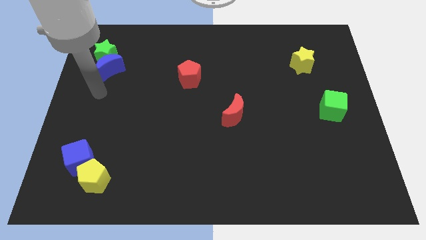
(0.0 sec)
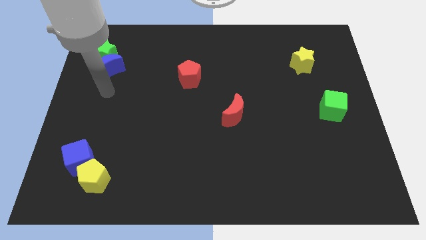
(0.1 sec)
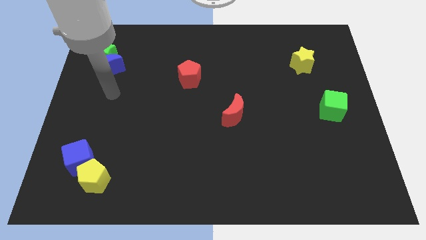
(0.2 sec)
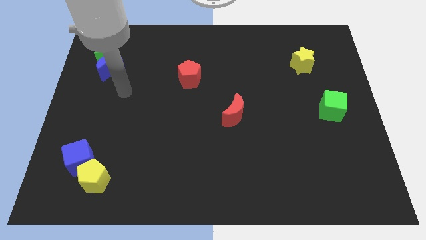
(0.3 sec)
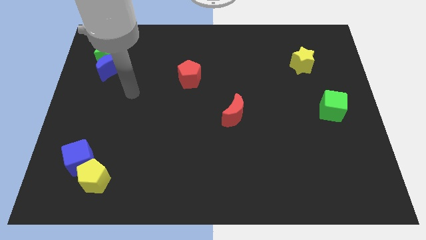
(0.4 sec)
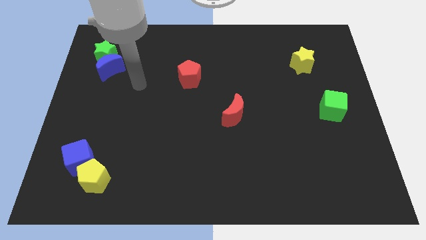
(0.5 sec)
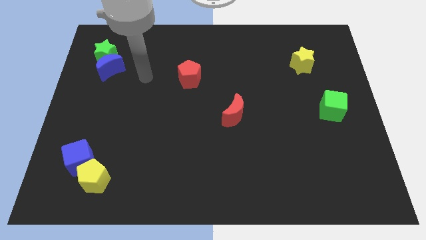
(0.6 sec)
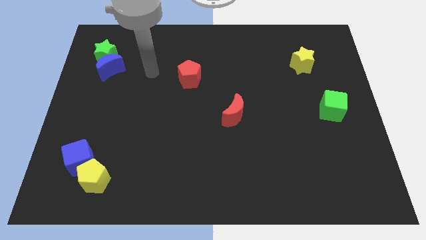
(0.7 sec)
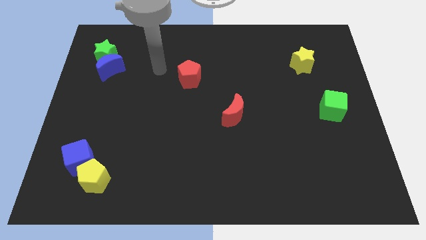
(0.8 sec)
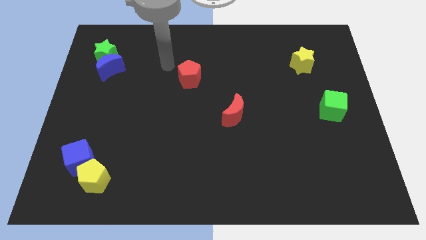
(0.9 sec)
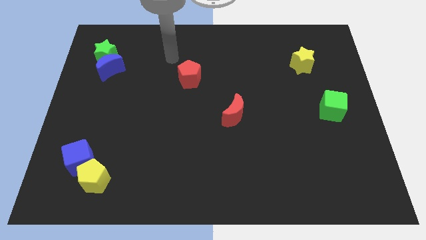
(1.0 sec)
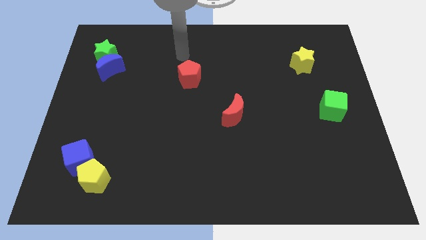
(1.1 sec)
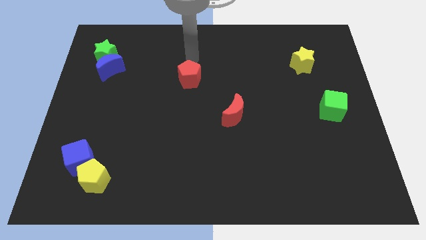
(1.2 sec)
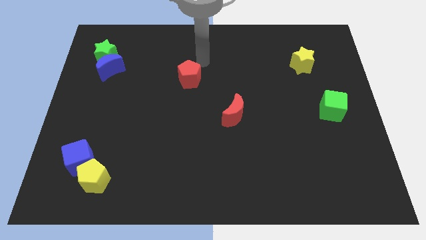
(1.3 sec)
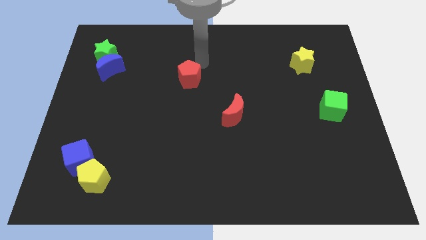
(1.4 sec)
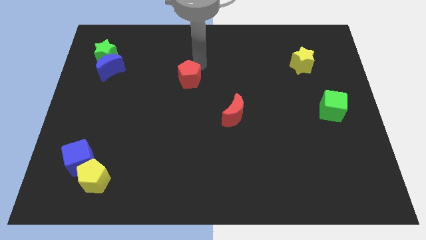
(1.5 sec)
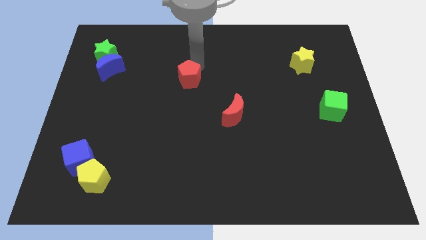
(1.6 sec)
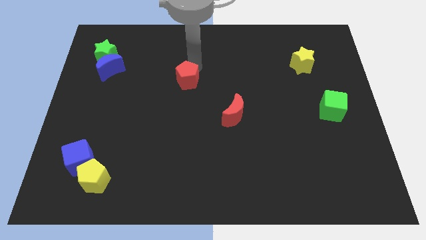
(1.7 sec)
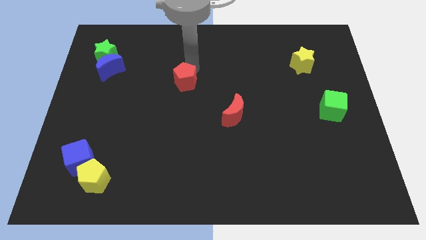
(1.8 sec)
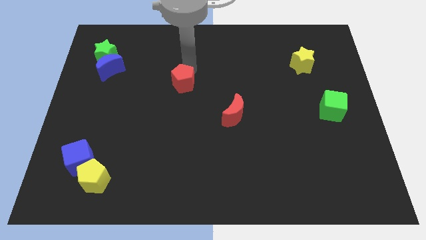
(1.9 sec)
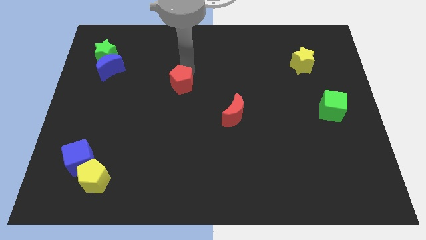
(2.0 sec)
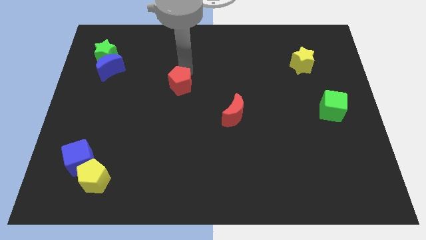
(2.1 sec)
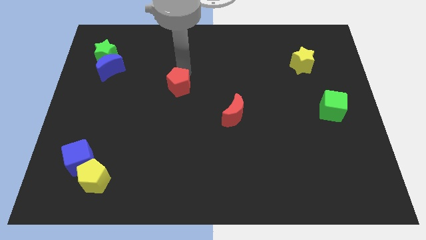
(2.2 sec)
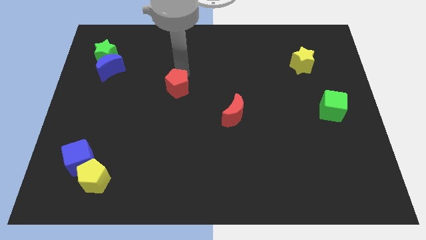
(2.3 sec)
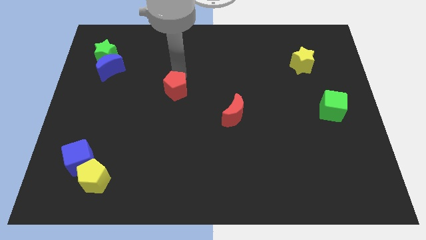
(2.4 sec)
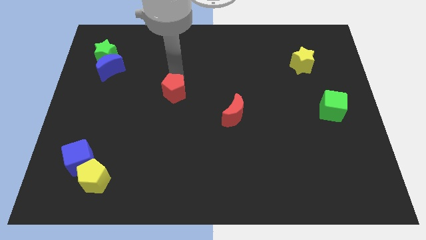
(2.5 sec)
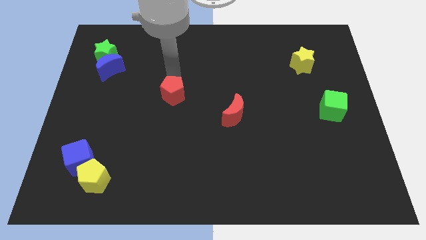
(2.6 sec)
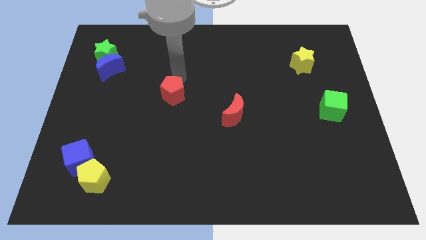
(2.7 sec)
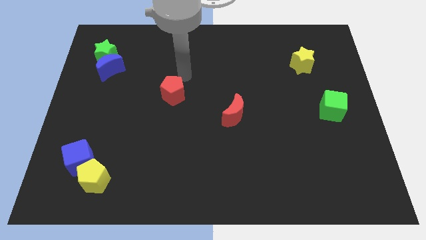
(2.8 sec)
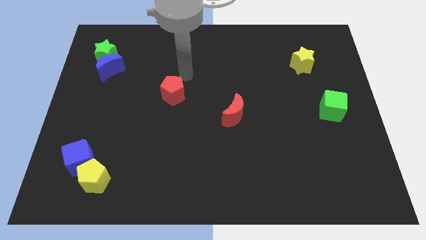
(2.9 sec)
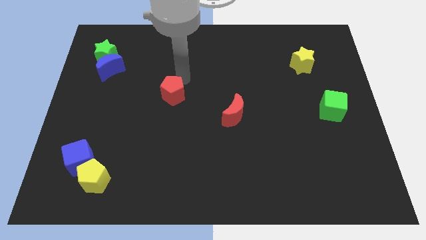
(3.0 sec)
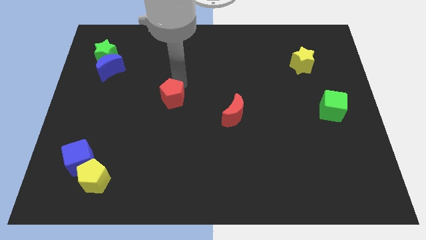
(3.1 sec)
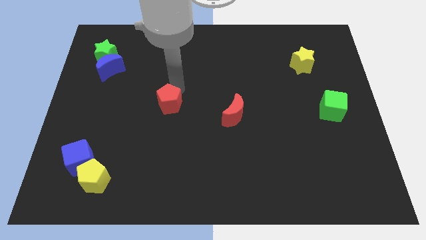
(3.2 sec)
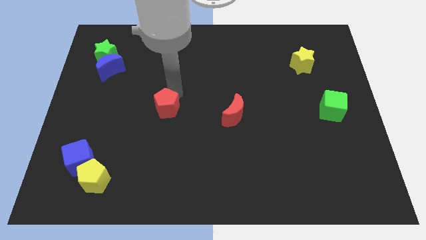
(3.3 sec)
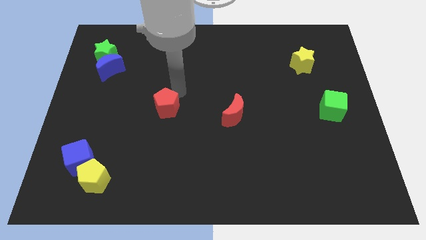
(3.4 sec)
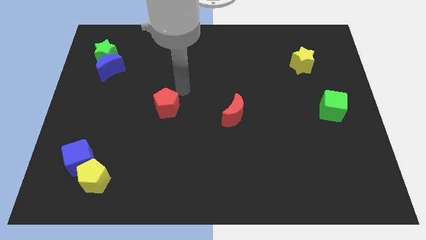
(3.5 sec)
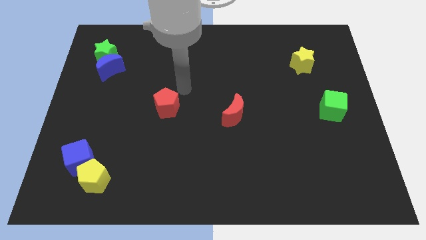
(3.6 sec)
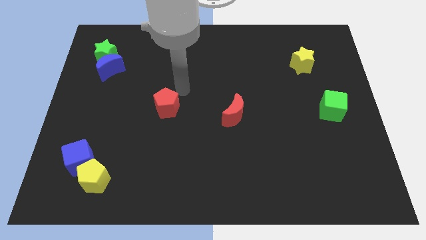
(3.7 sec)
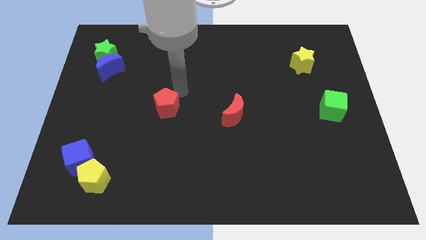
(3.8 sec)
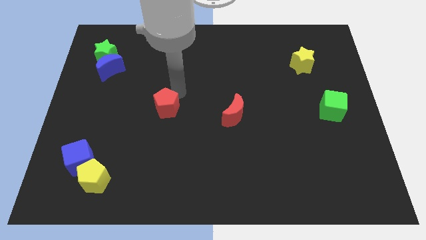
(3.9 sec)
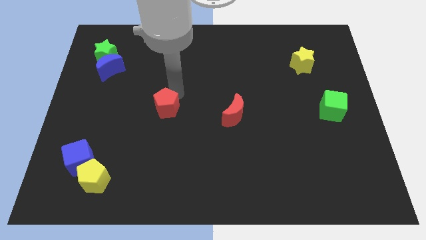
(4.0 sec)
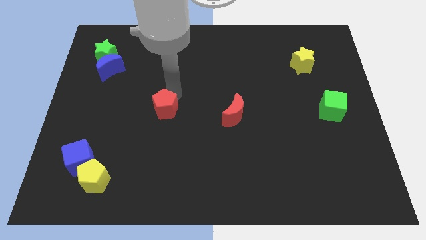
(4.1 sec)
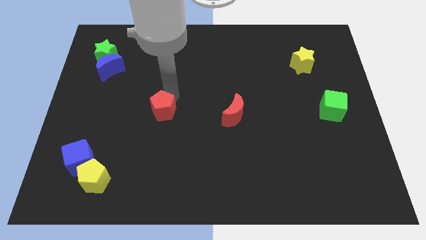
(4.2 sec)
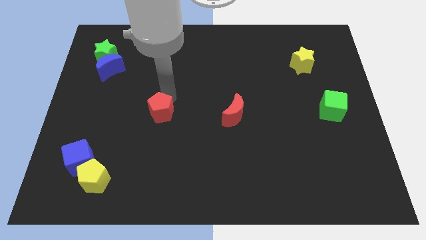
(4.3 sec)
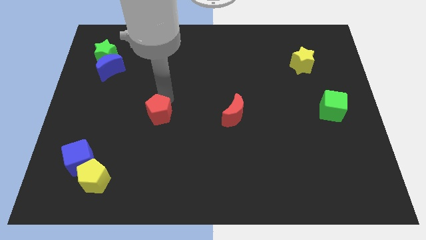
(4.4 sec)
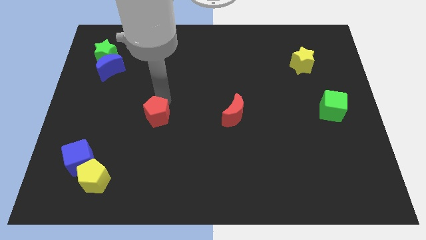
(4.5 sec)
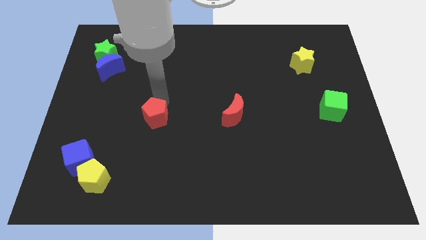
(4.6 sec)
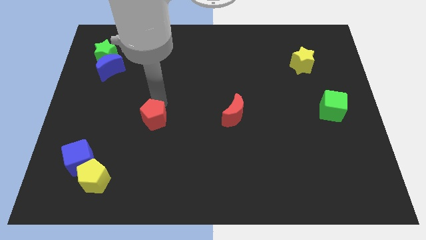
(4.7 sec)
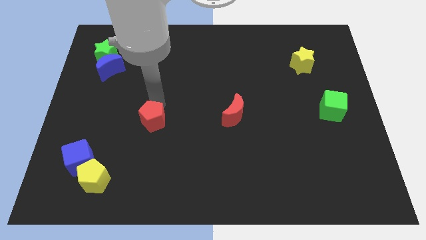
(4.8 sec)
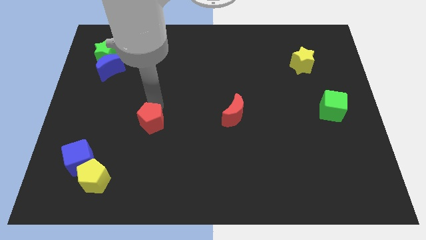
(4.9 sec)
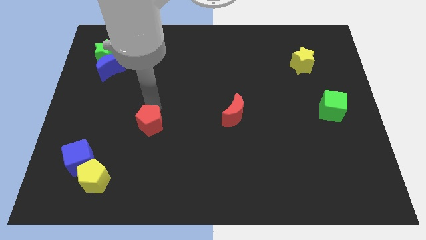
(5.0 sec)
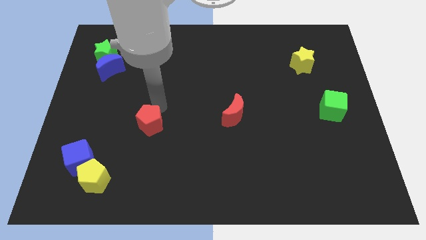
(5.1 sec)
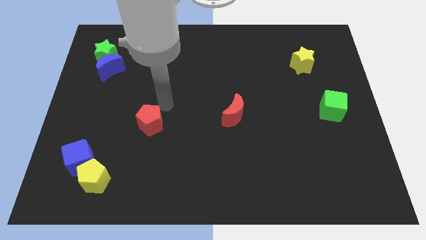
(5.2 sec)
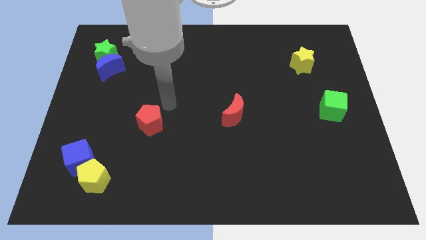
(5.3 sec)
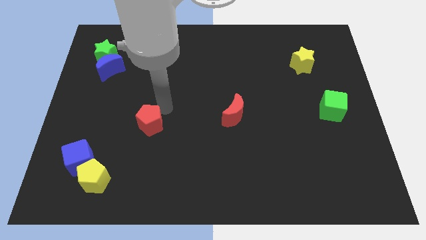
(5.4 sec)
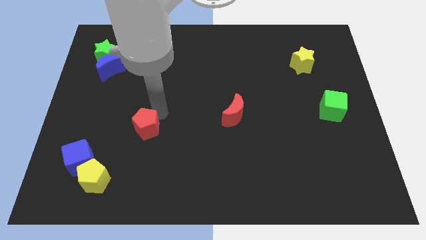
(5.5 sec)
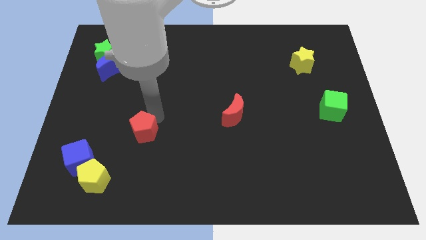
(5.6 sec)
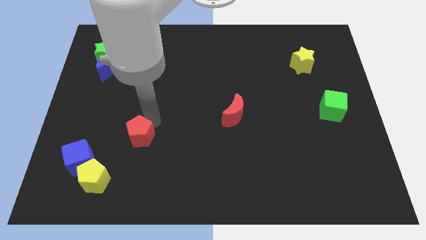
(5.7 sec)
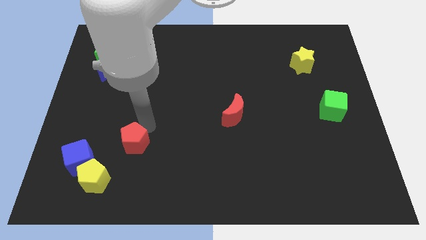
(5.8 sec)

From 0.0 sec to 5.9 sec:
move the red pentagon diagonally up and to the right of the yellow pentagon

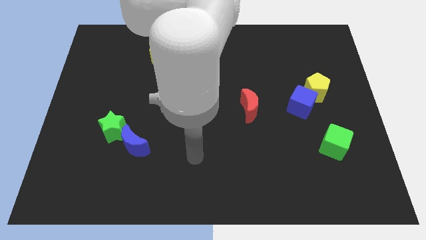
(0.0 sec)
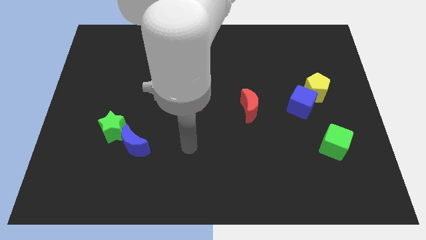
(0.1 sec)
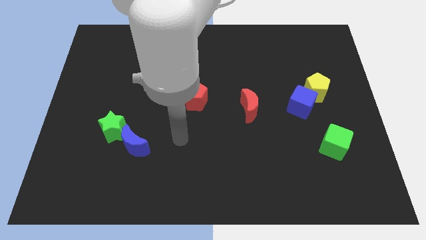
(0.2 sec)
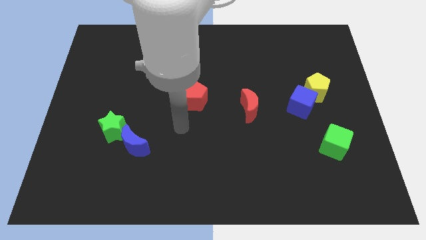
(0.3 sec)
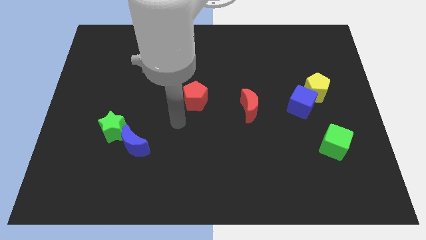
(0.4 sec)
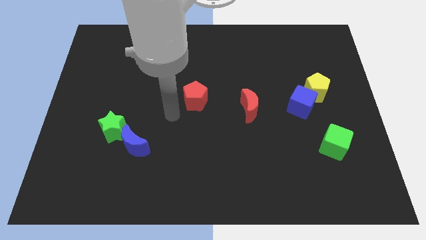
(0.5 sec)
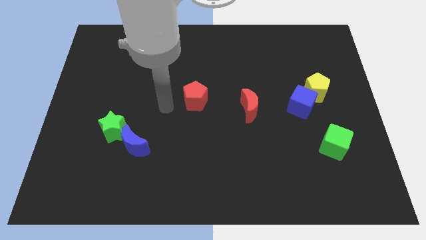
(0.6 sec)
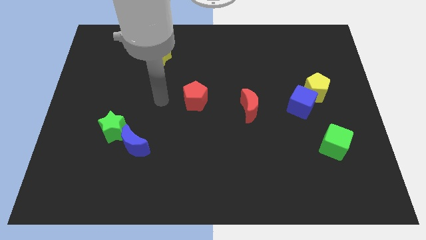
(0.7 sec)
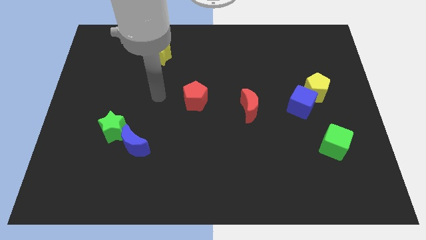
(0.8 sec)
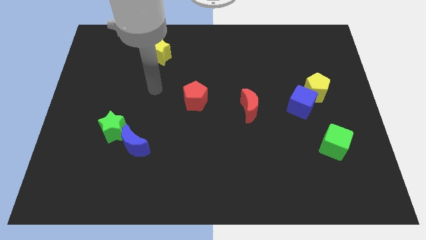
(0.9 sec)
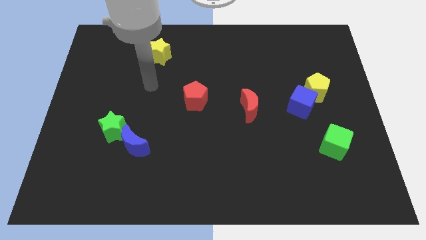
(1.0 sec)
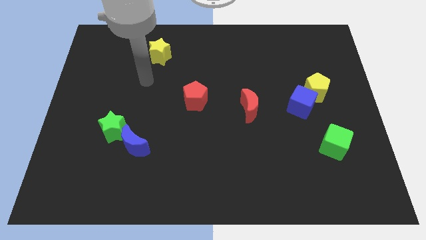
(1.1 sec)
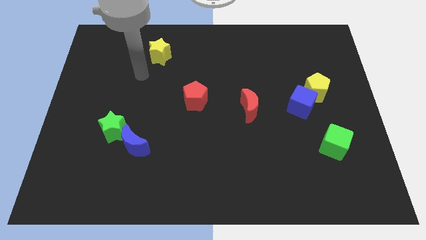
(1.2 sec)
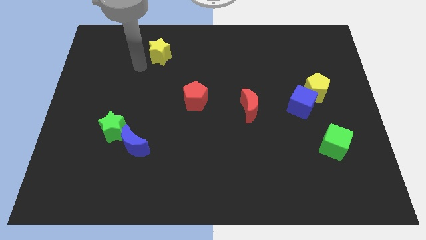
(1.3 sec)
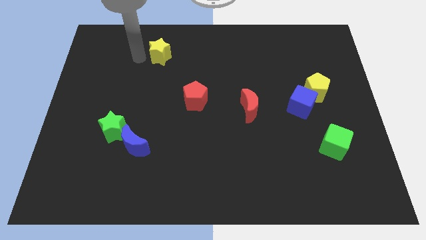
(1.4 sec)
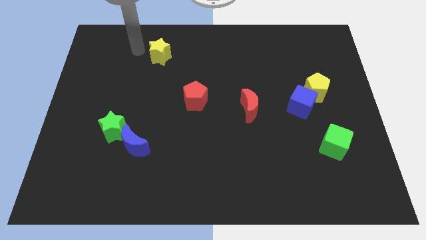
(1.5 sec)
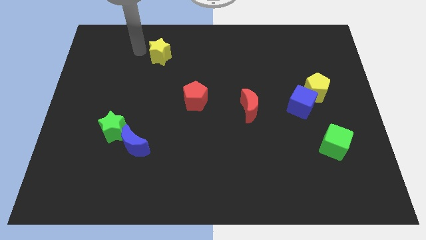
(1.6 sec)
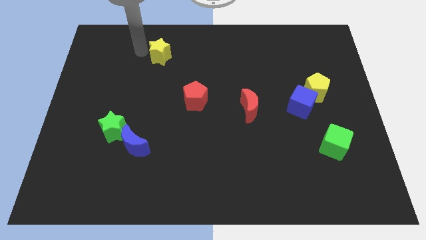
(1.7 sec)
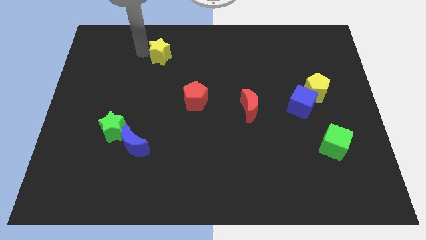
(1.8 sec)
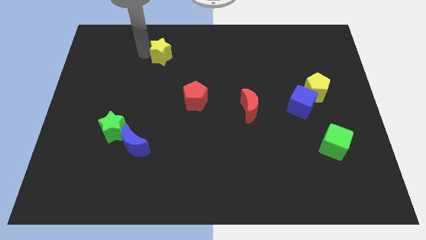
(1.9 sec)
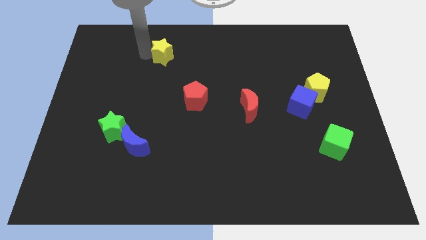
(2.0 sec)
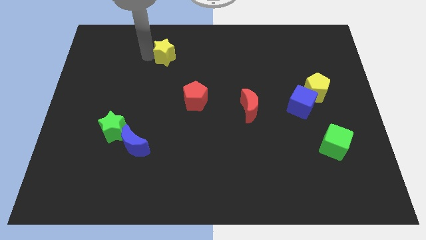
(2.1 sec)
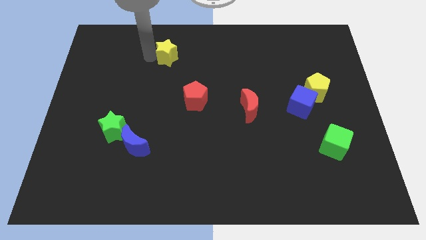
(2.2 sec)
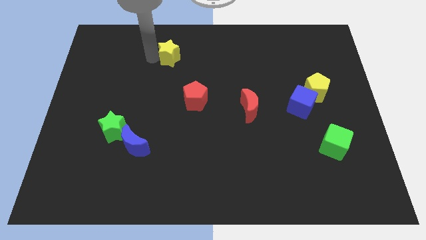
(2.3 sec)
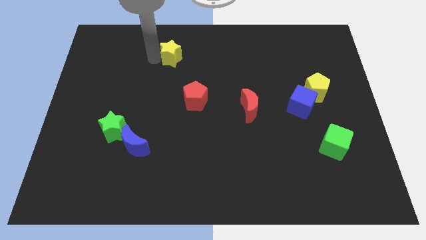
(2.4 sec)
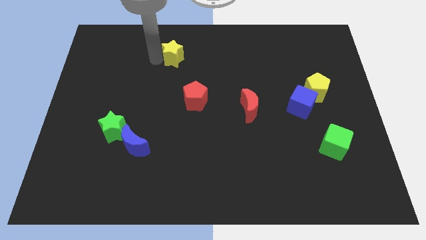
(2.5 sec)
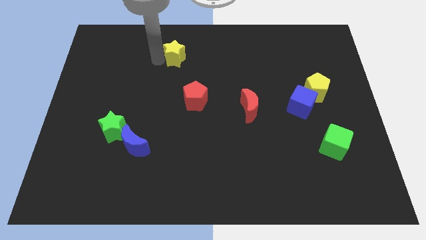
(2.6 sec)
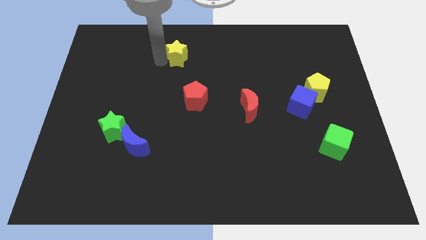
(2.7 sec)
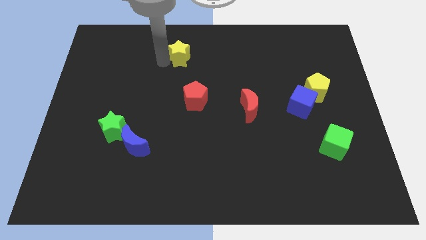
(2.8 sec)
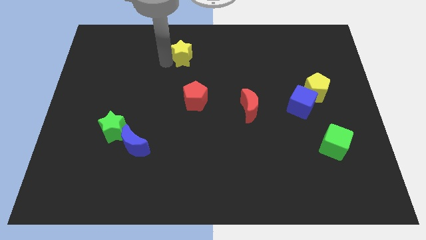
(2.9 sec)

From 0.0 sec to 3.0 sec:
put the yellow star above the red pentagon
